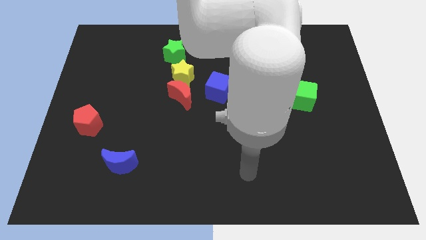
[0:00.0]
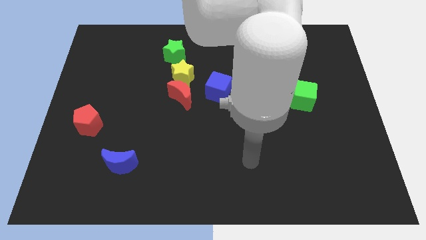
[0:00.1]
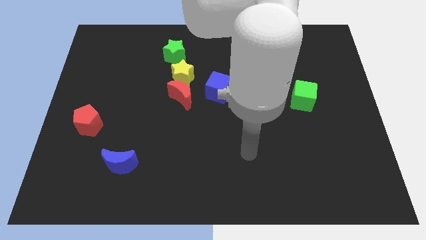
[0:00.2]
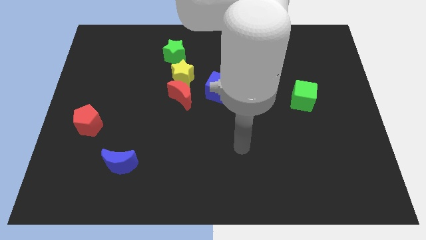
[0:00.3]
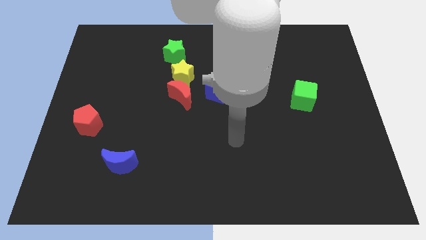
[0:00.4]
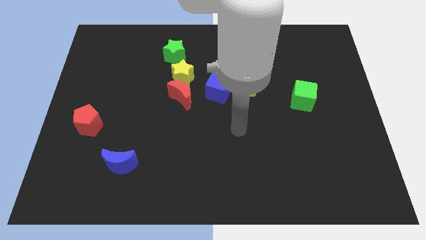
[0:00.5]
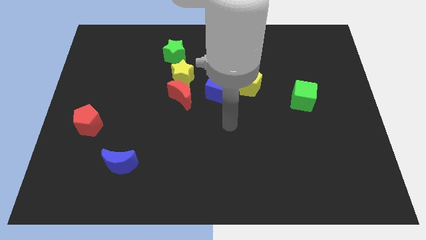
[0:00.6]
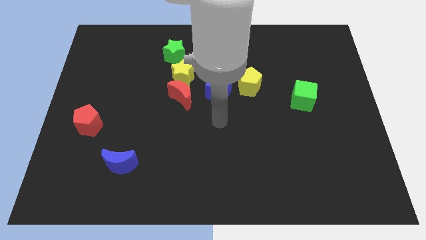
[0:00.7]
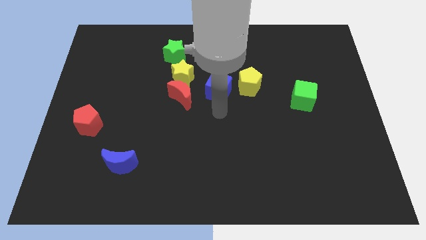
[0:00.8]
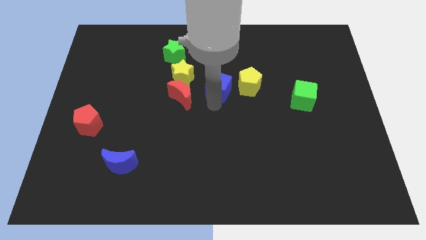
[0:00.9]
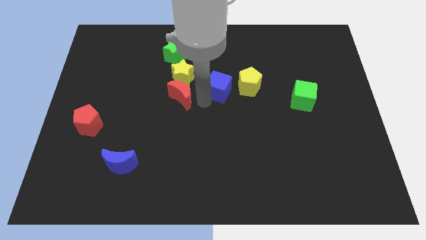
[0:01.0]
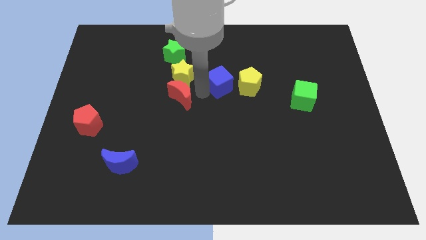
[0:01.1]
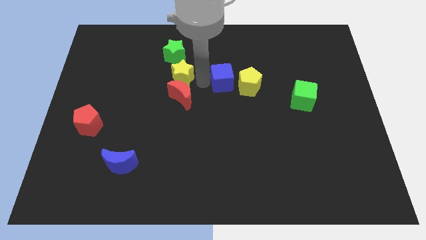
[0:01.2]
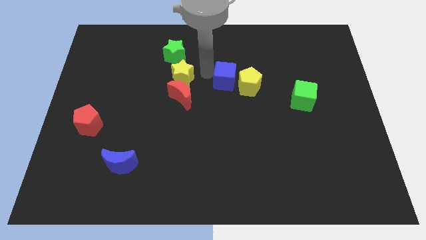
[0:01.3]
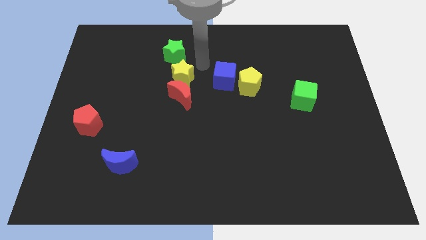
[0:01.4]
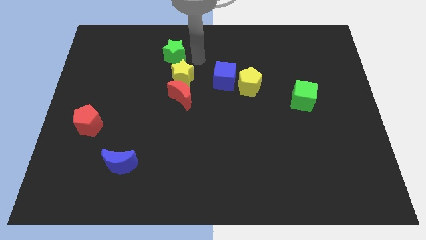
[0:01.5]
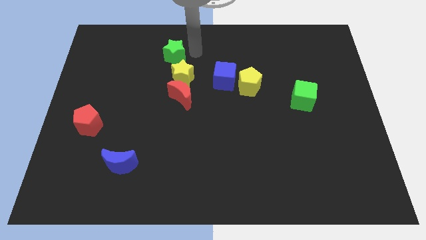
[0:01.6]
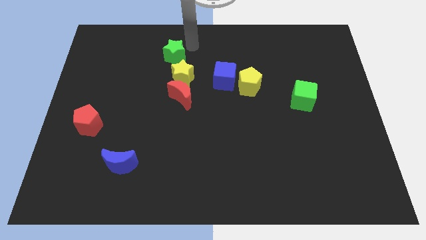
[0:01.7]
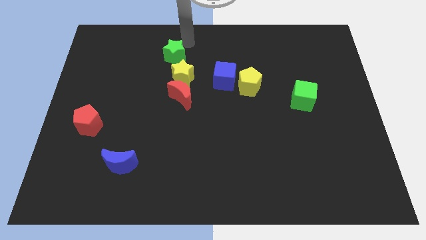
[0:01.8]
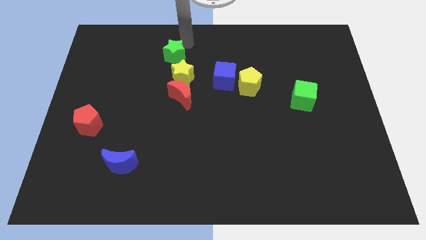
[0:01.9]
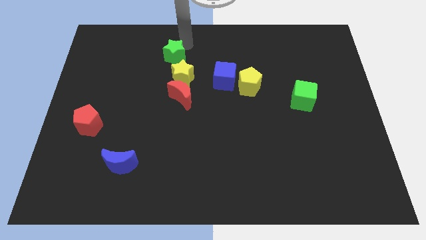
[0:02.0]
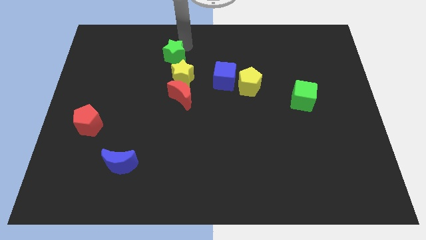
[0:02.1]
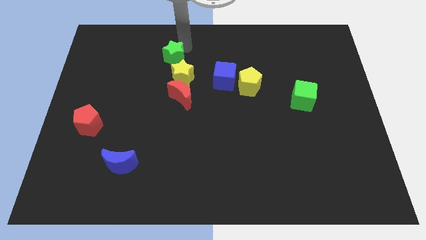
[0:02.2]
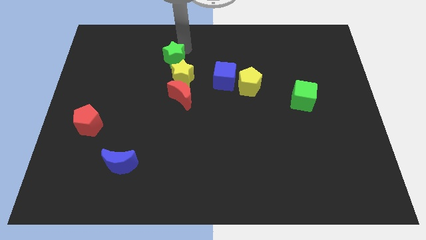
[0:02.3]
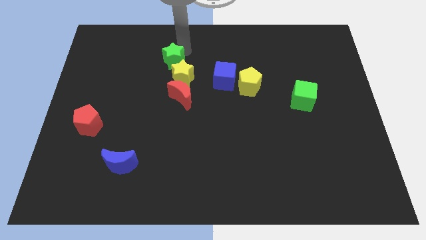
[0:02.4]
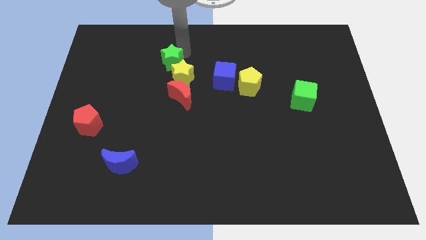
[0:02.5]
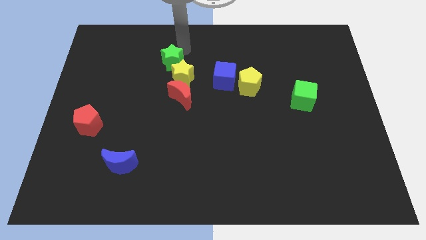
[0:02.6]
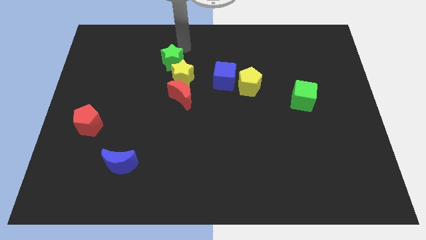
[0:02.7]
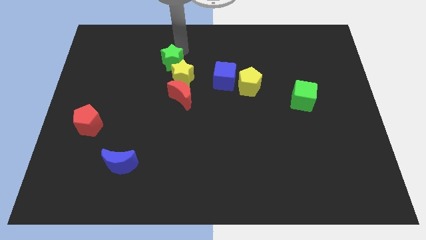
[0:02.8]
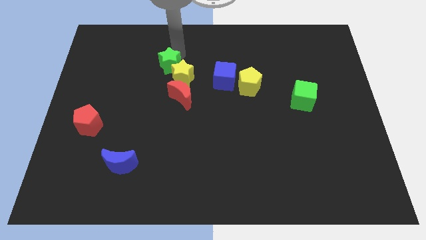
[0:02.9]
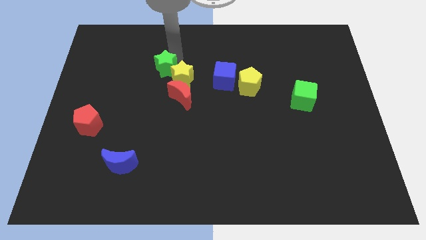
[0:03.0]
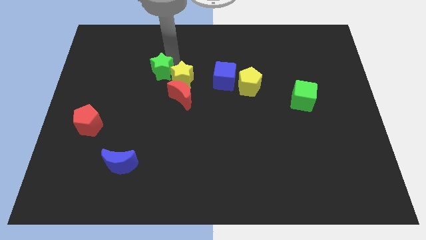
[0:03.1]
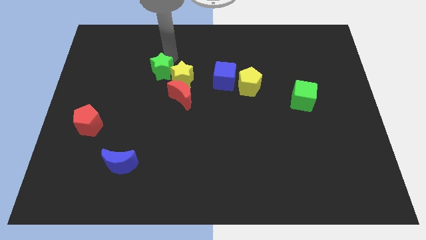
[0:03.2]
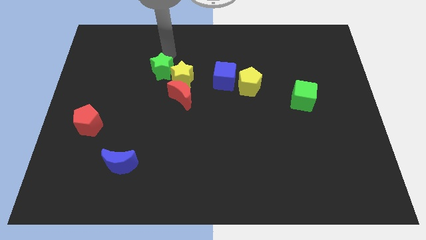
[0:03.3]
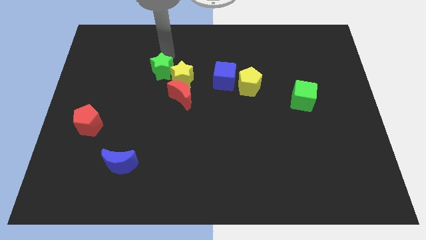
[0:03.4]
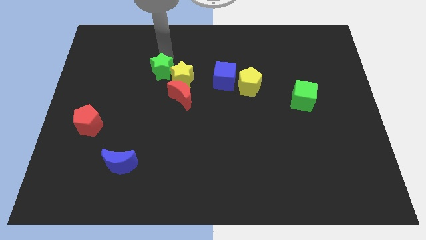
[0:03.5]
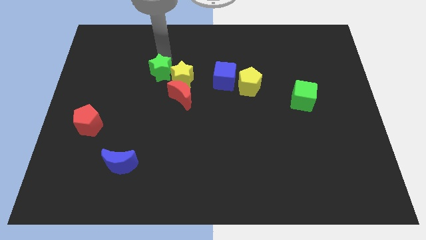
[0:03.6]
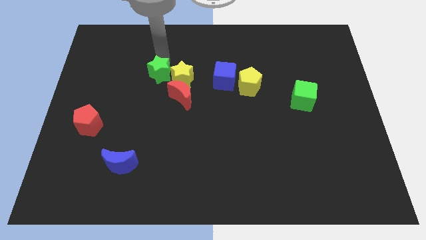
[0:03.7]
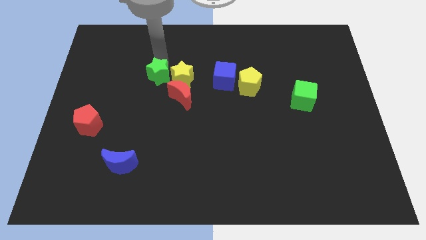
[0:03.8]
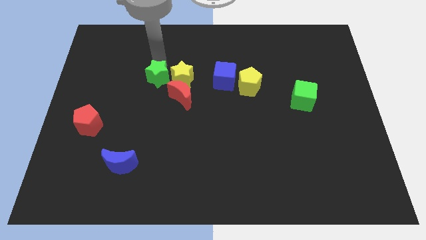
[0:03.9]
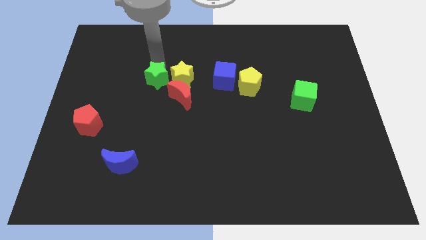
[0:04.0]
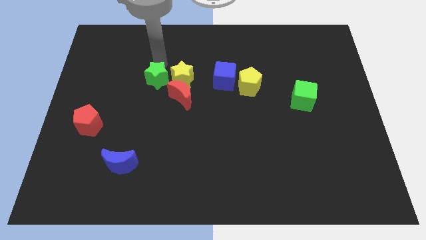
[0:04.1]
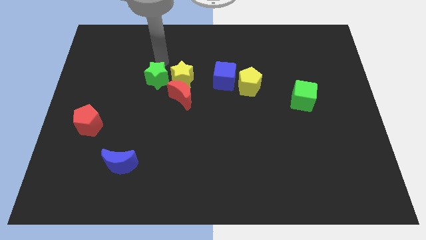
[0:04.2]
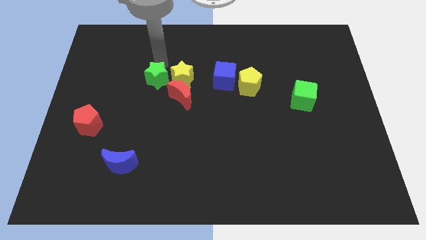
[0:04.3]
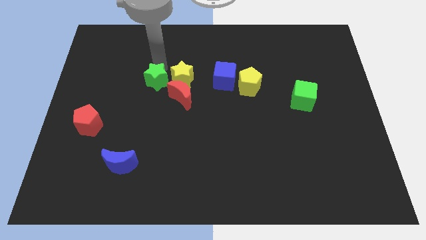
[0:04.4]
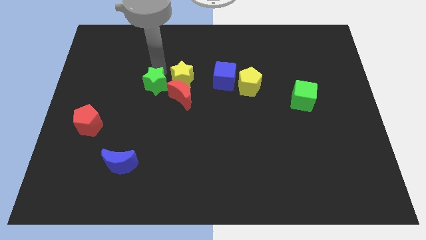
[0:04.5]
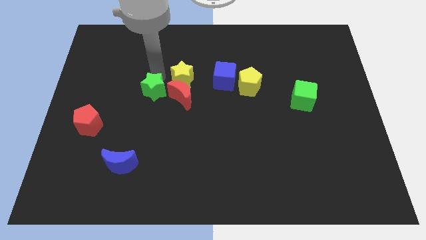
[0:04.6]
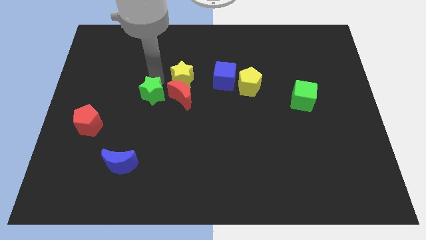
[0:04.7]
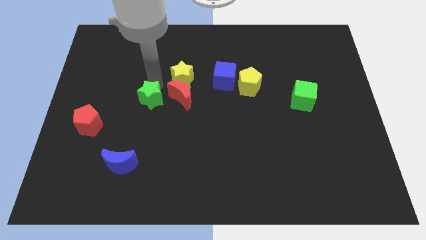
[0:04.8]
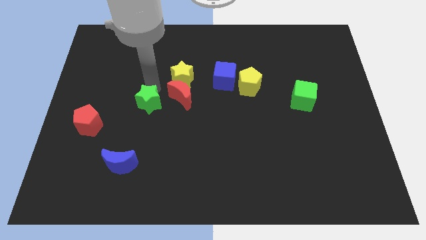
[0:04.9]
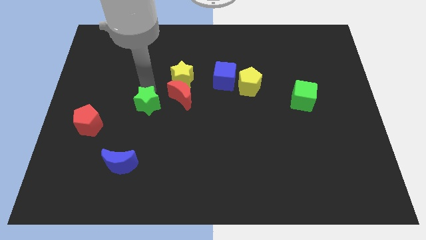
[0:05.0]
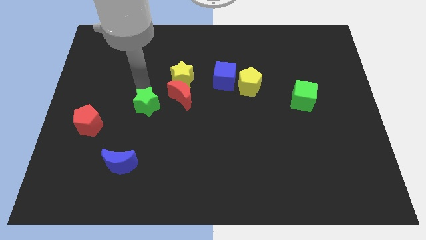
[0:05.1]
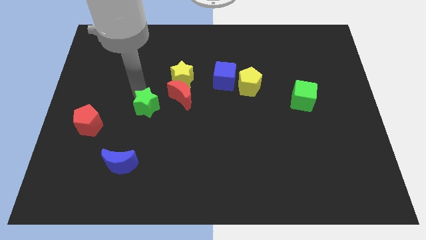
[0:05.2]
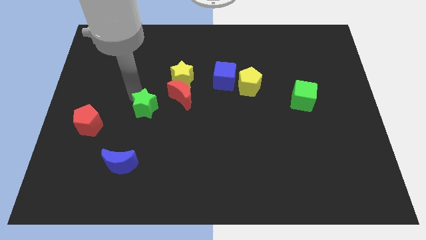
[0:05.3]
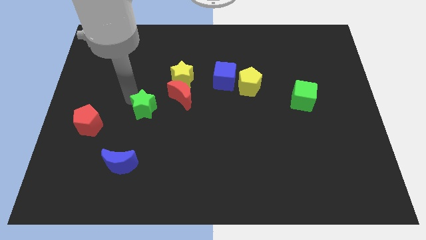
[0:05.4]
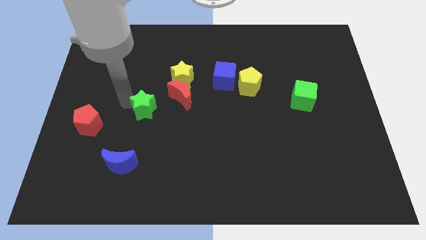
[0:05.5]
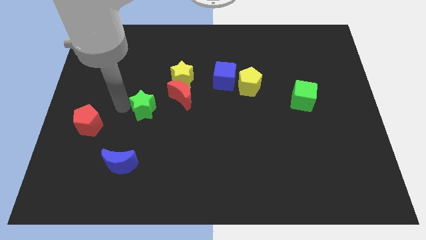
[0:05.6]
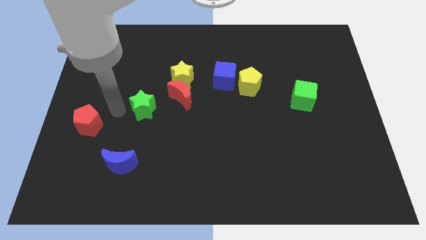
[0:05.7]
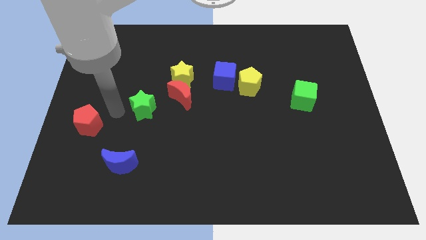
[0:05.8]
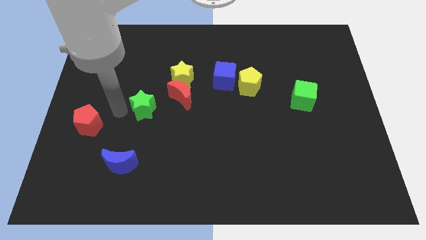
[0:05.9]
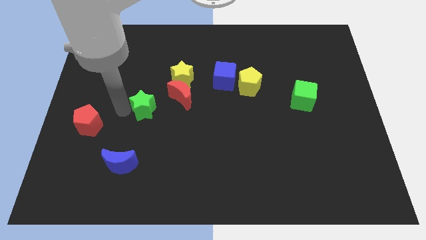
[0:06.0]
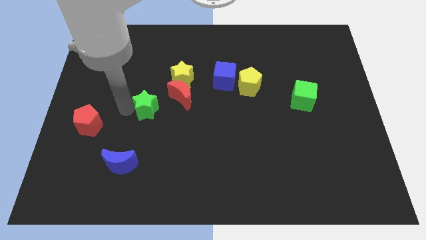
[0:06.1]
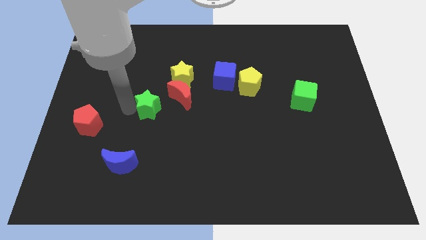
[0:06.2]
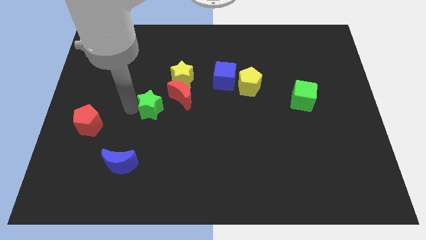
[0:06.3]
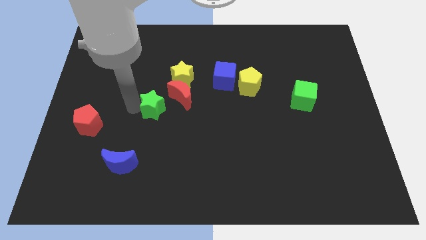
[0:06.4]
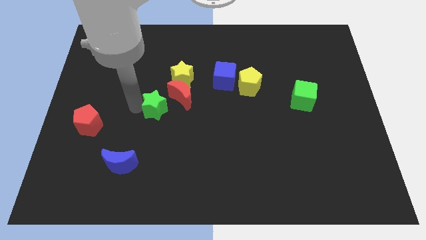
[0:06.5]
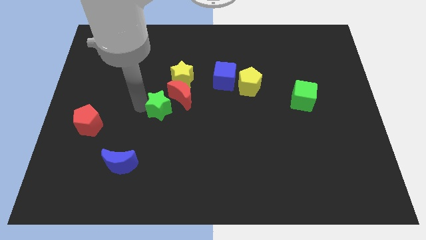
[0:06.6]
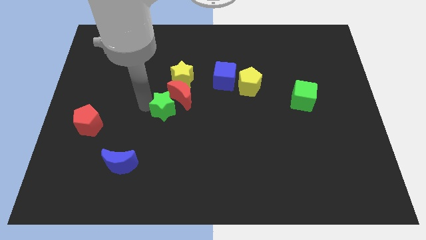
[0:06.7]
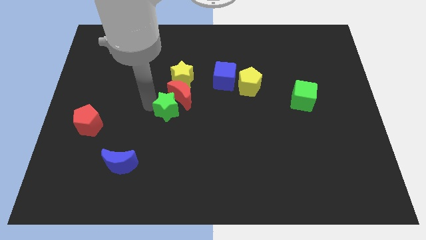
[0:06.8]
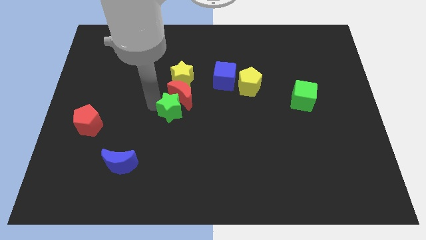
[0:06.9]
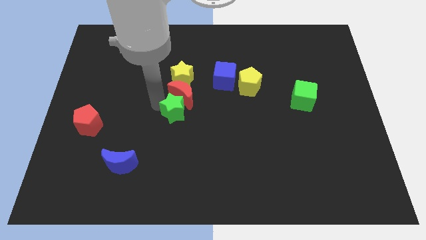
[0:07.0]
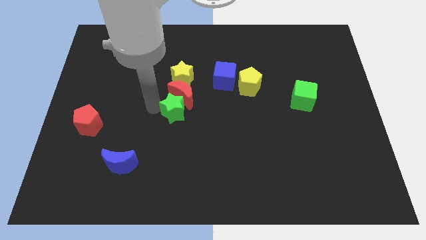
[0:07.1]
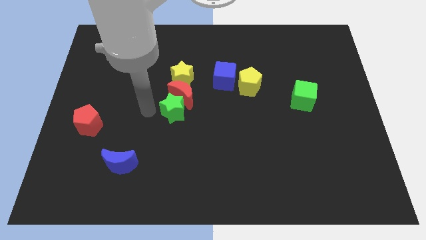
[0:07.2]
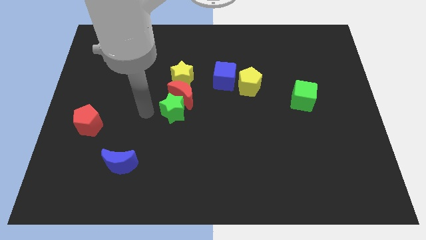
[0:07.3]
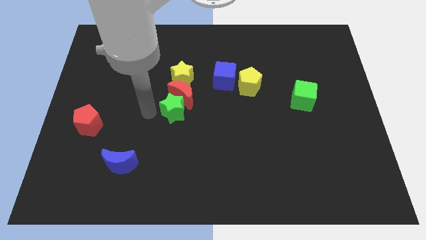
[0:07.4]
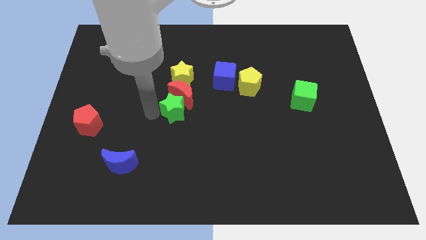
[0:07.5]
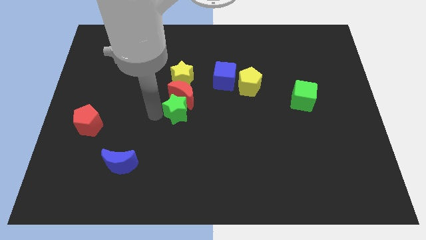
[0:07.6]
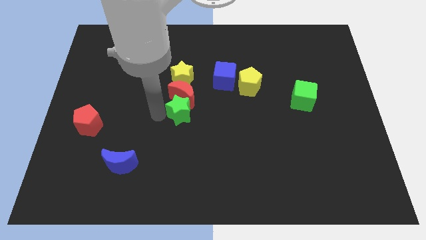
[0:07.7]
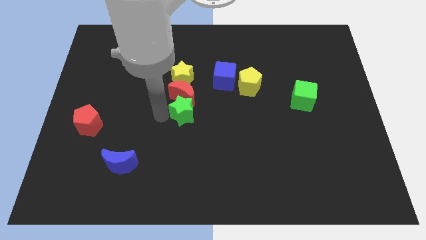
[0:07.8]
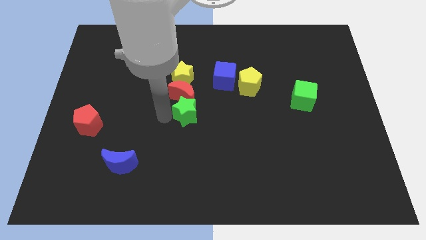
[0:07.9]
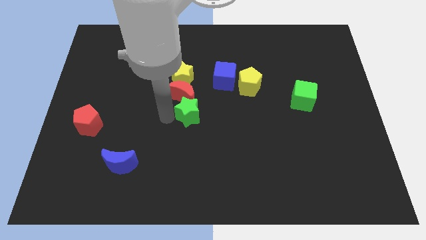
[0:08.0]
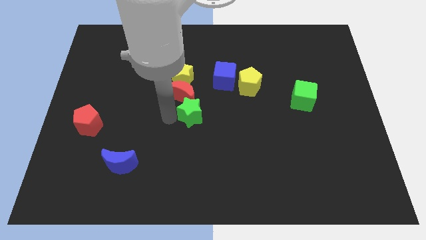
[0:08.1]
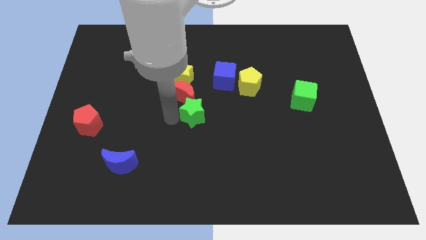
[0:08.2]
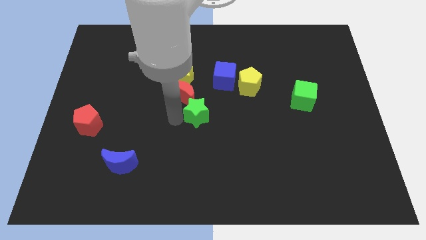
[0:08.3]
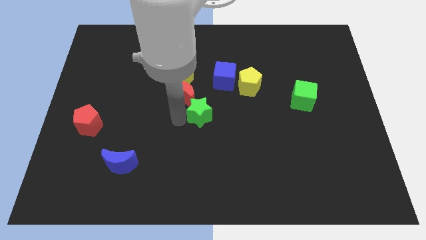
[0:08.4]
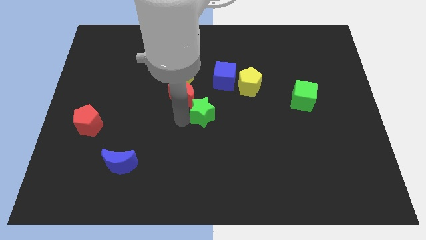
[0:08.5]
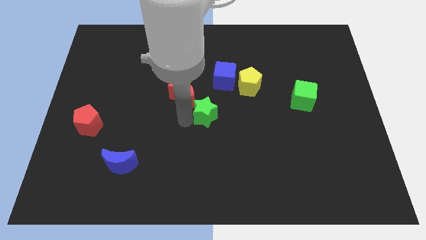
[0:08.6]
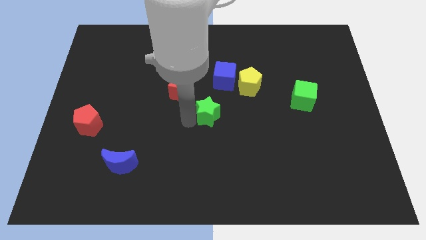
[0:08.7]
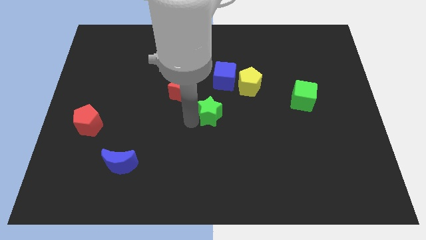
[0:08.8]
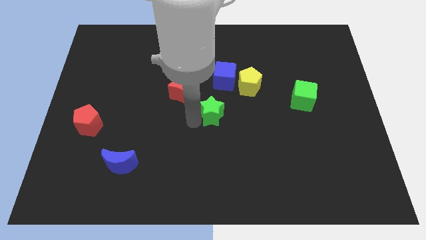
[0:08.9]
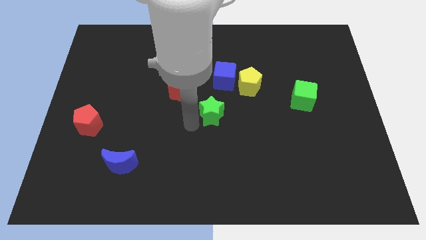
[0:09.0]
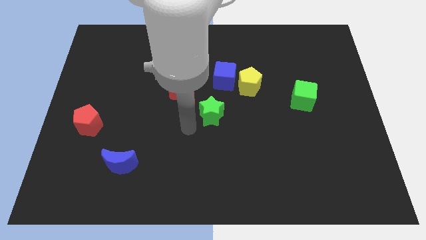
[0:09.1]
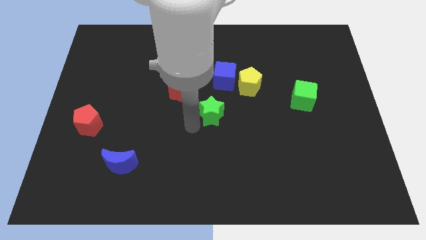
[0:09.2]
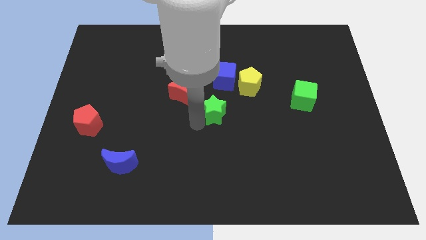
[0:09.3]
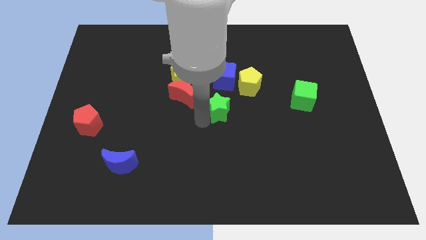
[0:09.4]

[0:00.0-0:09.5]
put the green star to the right side of the red moon
